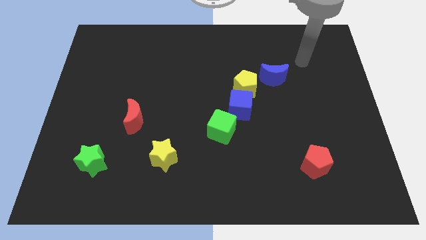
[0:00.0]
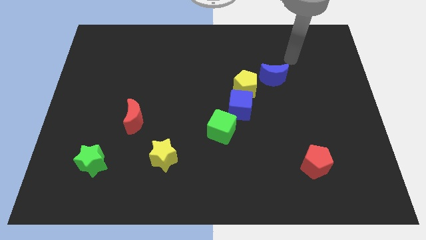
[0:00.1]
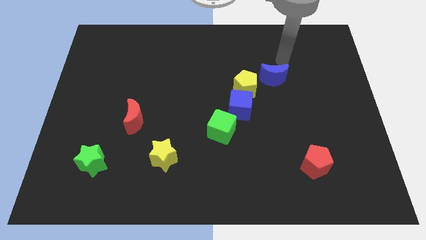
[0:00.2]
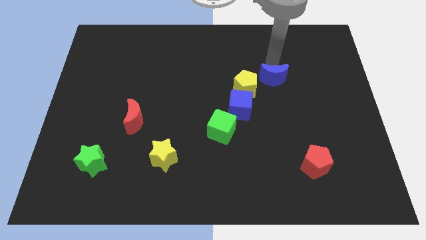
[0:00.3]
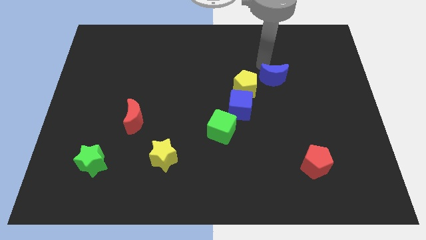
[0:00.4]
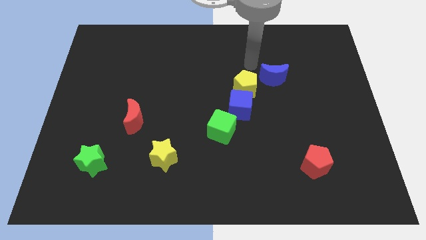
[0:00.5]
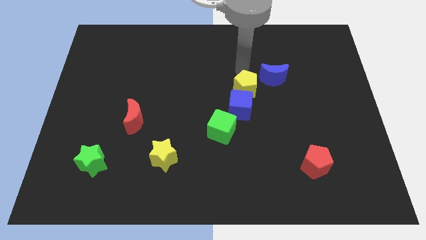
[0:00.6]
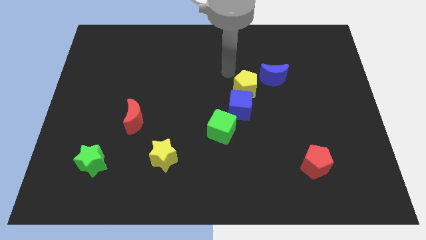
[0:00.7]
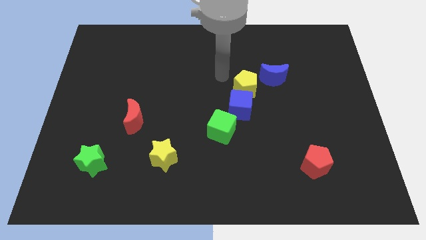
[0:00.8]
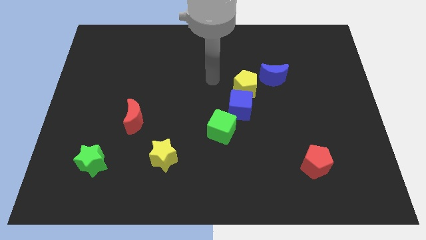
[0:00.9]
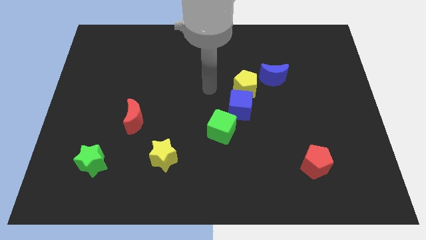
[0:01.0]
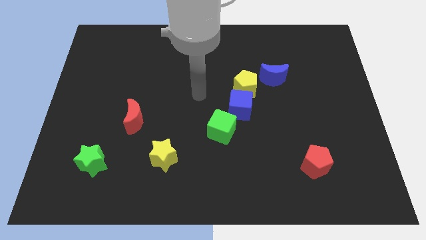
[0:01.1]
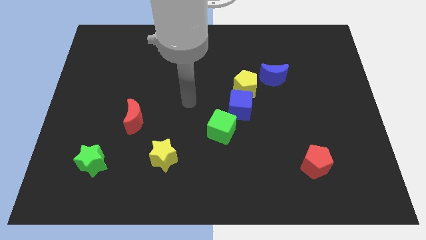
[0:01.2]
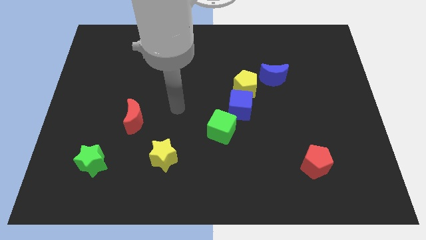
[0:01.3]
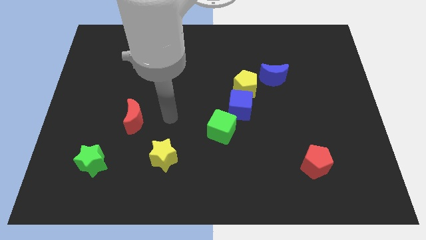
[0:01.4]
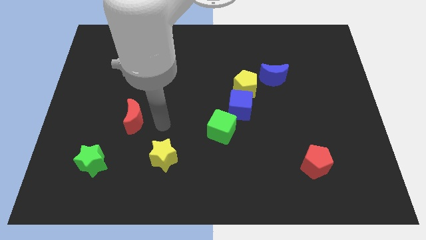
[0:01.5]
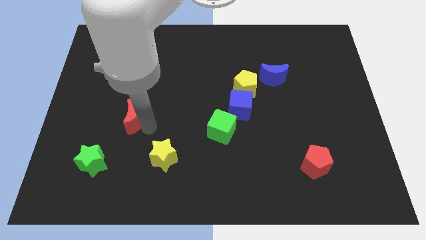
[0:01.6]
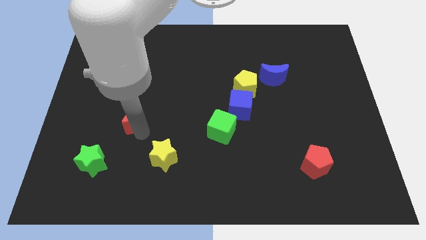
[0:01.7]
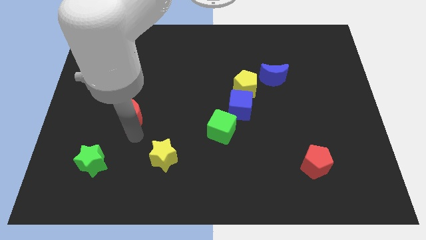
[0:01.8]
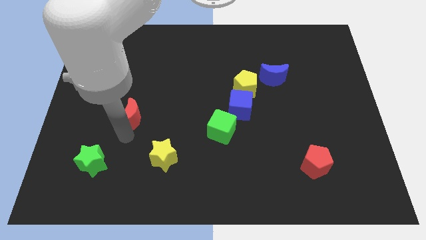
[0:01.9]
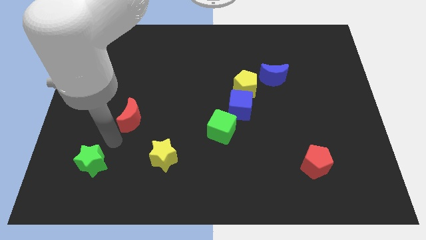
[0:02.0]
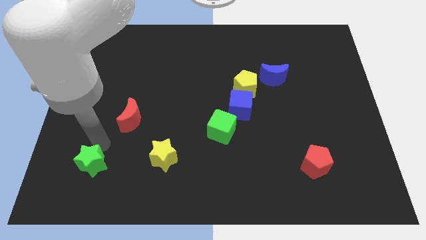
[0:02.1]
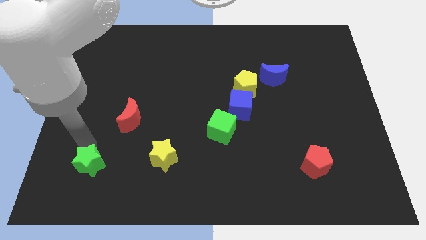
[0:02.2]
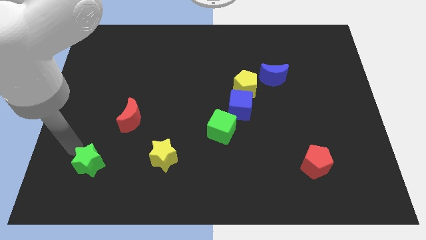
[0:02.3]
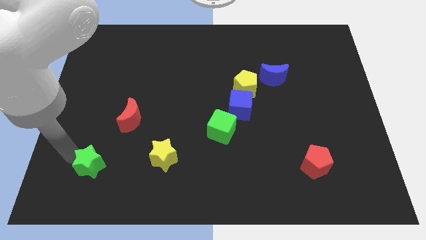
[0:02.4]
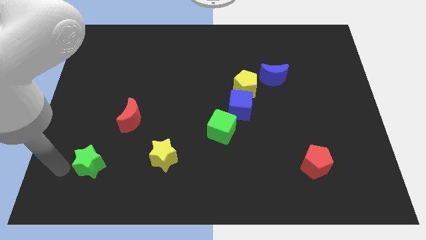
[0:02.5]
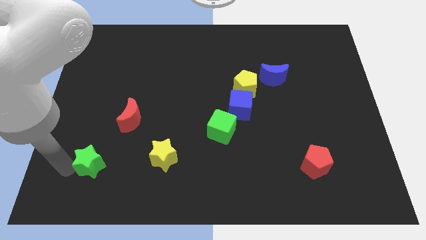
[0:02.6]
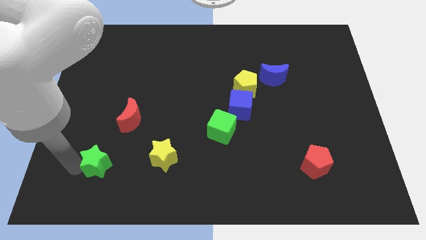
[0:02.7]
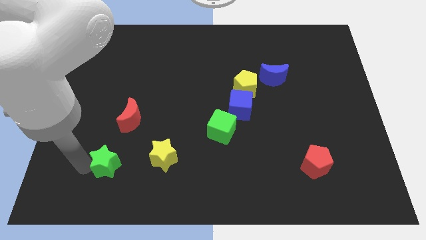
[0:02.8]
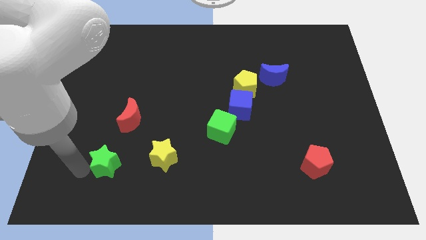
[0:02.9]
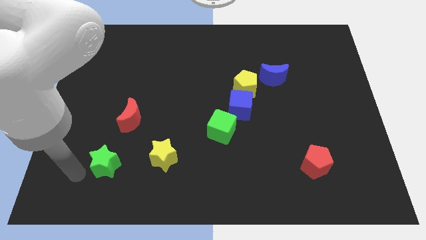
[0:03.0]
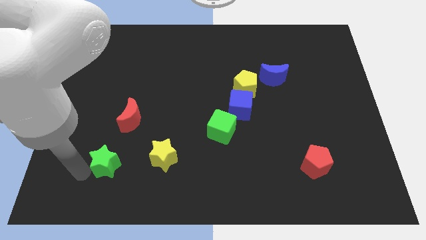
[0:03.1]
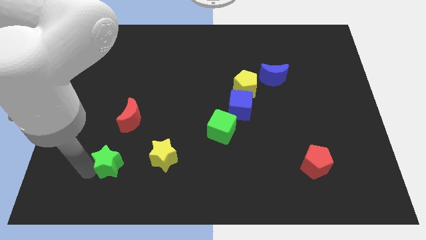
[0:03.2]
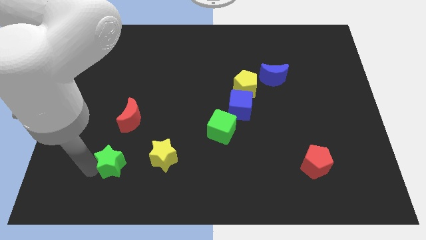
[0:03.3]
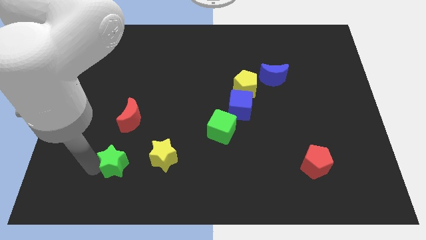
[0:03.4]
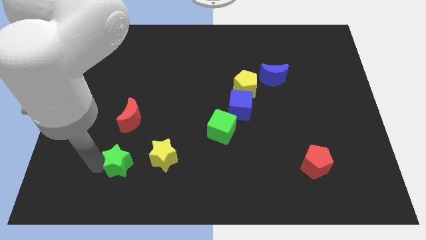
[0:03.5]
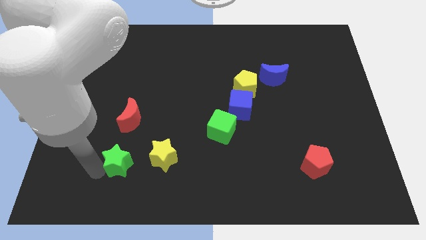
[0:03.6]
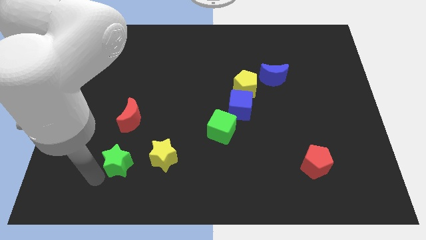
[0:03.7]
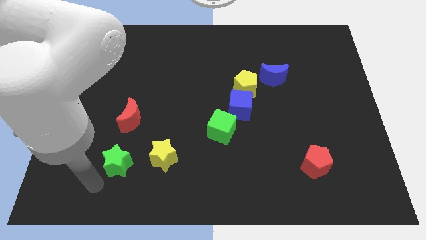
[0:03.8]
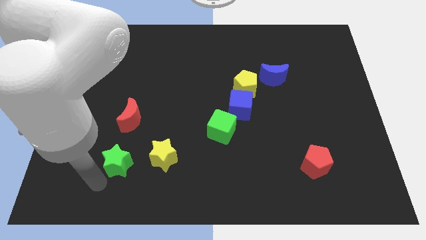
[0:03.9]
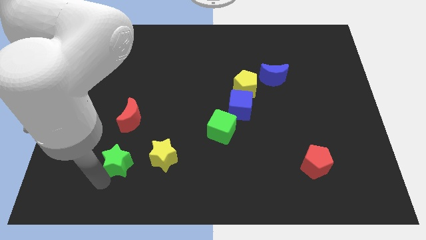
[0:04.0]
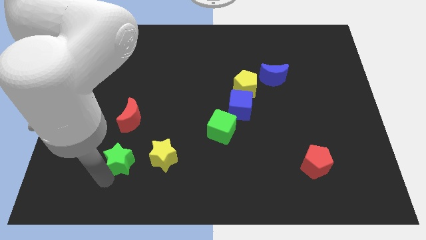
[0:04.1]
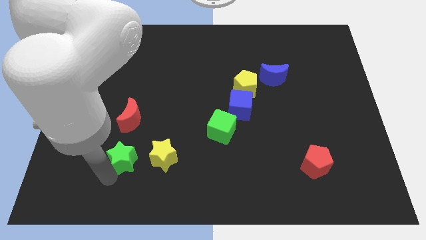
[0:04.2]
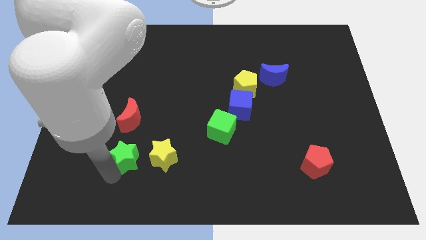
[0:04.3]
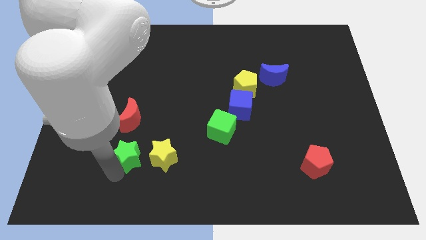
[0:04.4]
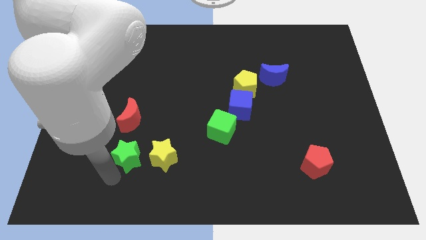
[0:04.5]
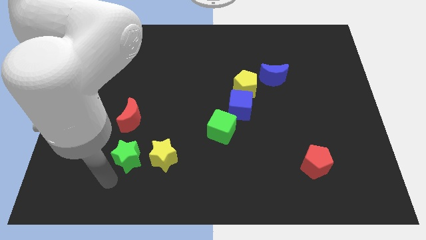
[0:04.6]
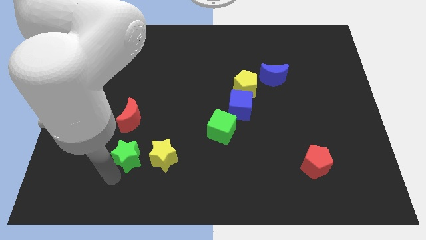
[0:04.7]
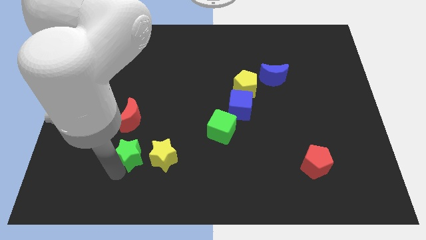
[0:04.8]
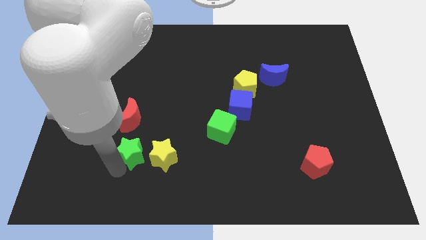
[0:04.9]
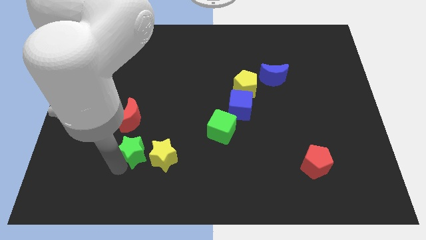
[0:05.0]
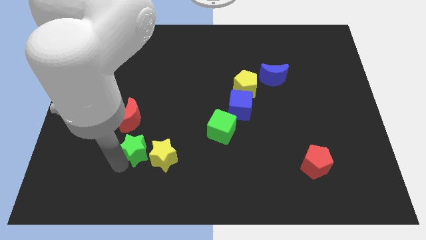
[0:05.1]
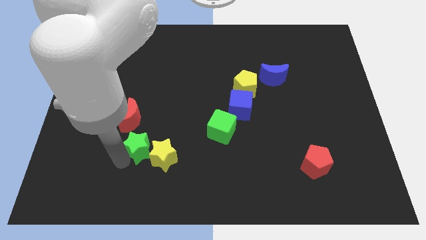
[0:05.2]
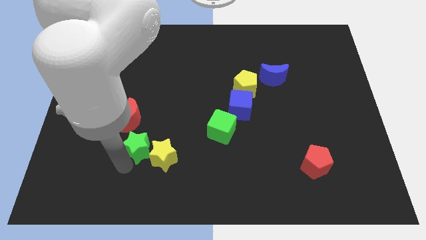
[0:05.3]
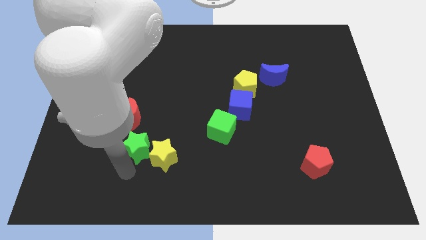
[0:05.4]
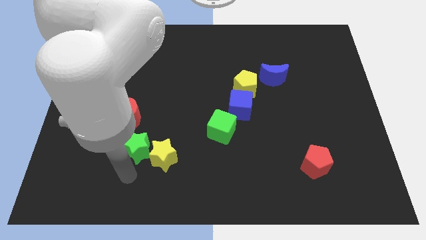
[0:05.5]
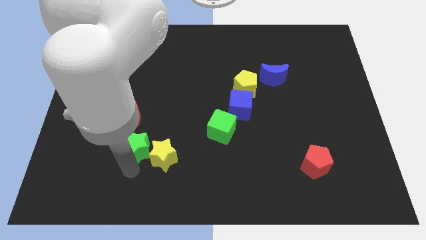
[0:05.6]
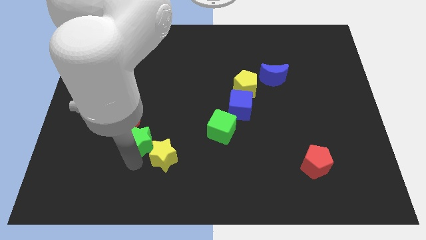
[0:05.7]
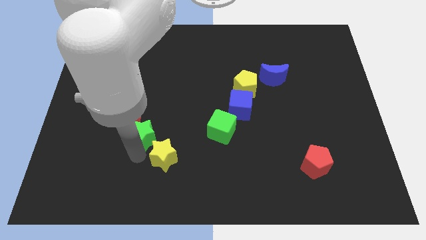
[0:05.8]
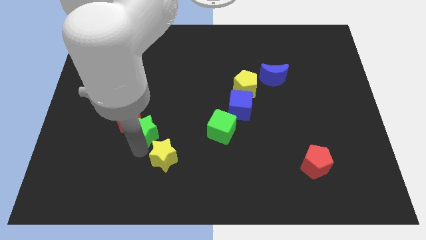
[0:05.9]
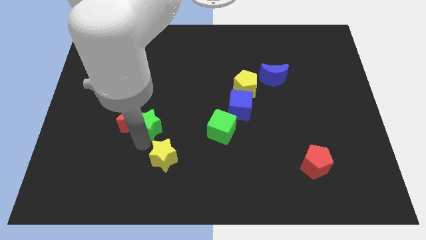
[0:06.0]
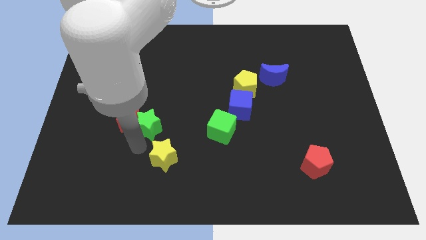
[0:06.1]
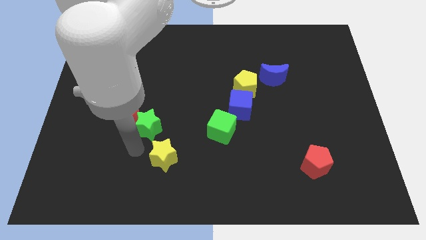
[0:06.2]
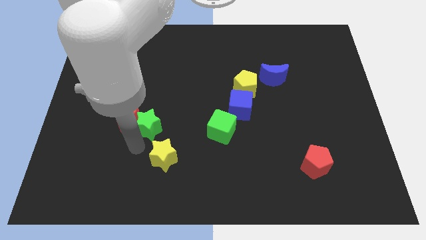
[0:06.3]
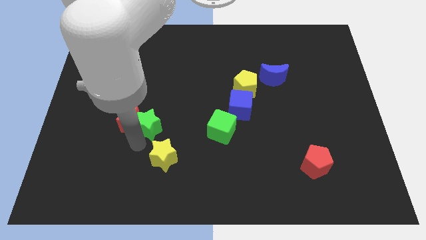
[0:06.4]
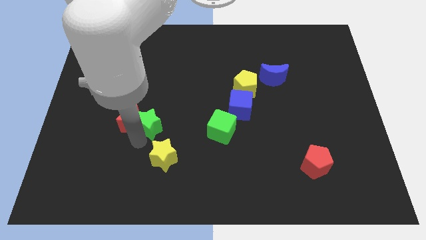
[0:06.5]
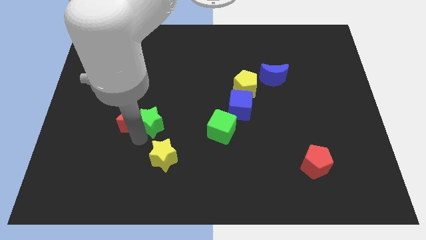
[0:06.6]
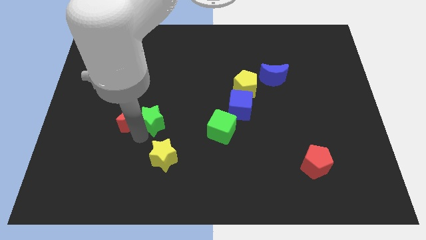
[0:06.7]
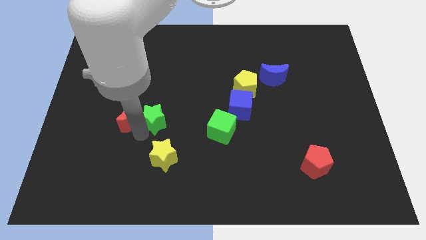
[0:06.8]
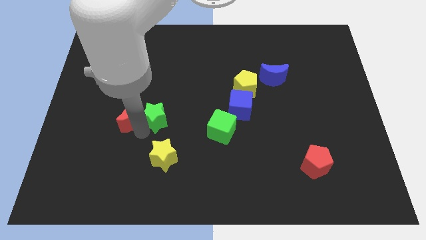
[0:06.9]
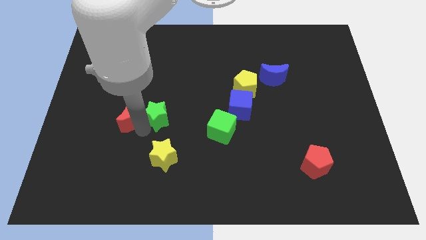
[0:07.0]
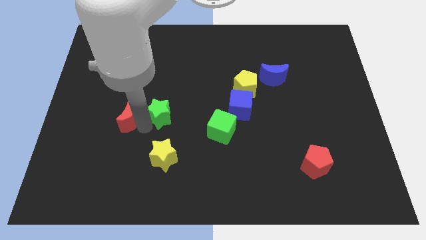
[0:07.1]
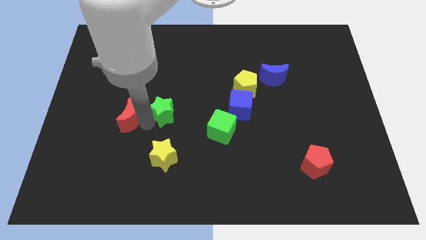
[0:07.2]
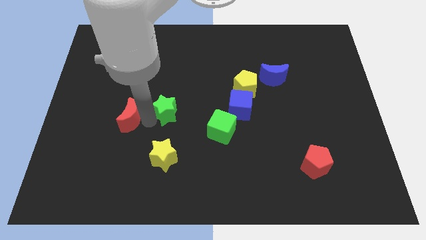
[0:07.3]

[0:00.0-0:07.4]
move the green star up and to the right diagonally

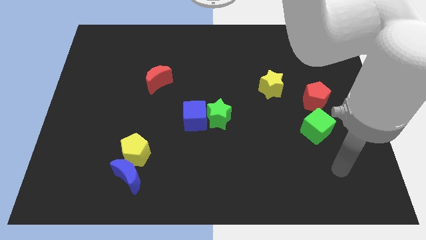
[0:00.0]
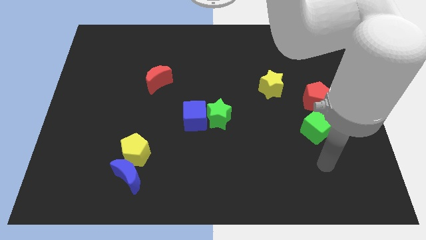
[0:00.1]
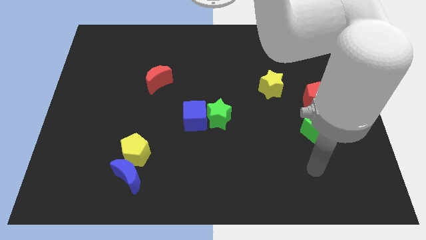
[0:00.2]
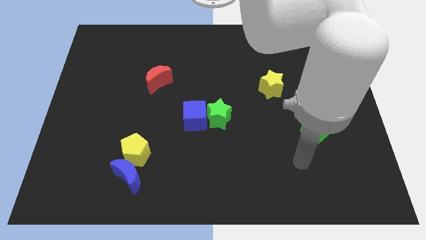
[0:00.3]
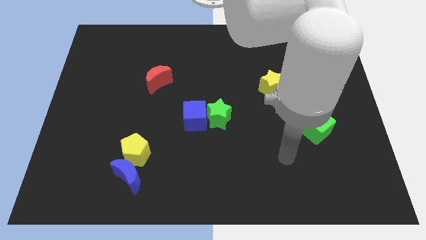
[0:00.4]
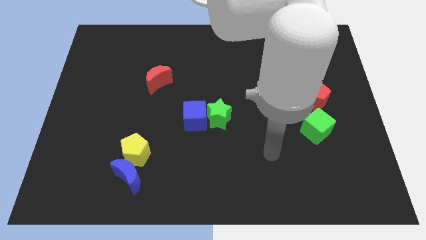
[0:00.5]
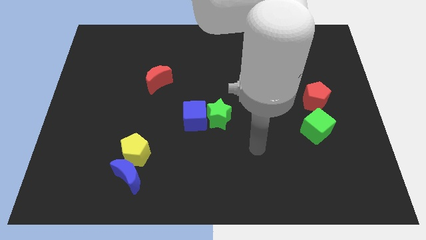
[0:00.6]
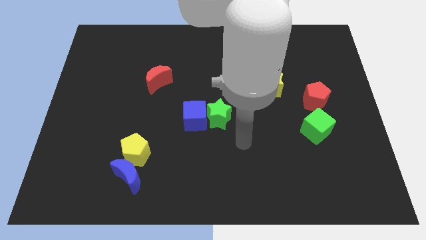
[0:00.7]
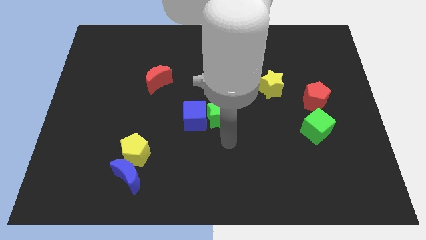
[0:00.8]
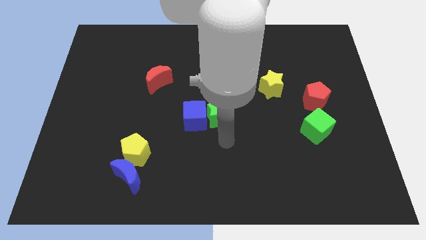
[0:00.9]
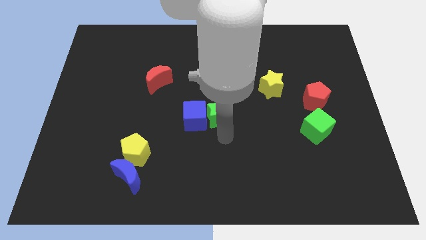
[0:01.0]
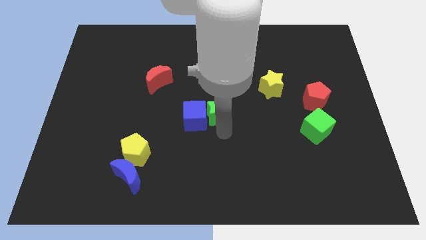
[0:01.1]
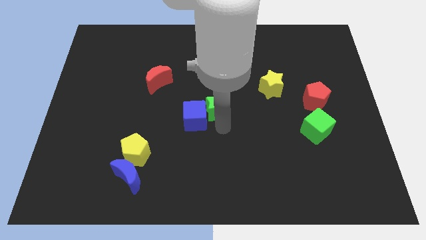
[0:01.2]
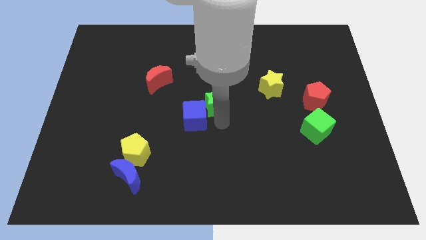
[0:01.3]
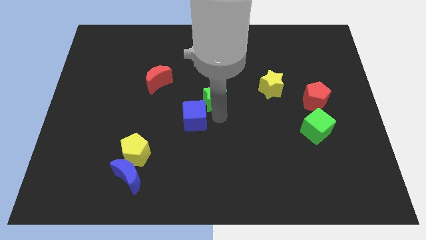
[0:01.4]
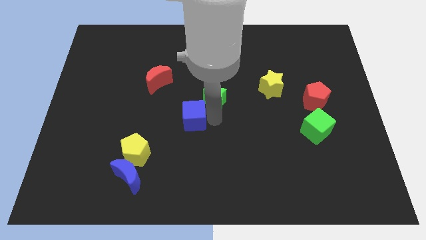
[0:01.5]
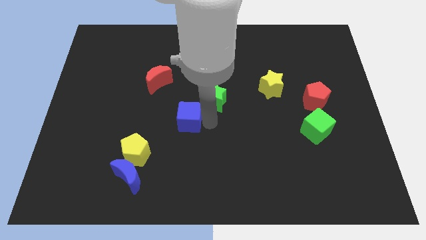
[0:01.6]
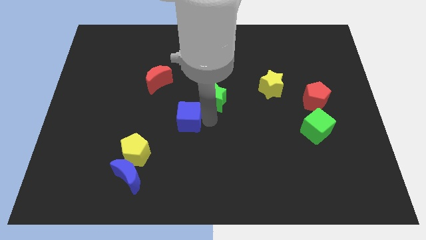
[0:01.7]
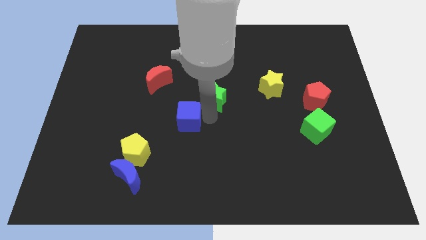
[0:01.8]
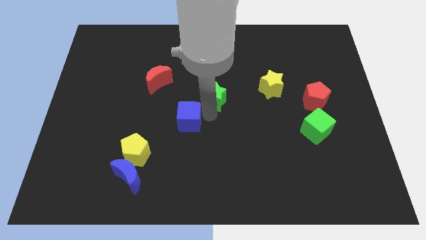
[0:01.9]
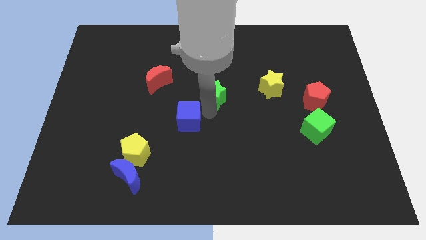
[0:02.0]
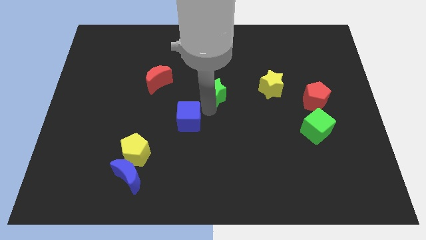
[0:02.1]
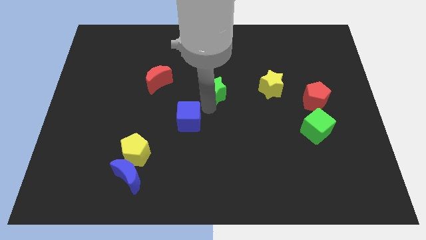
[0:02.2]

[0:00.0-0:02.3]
slightly move the green star upwards
